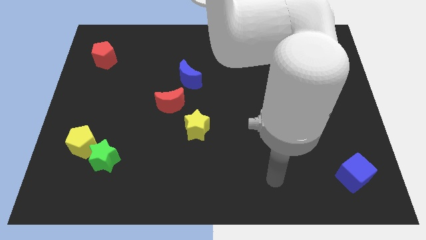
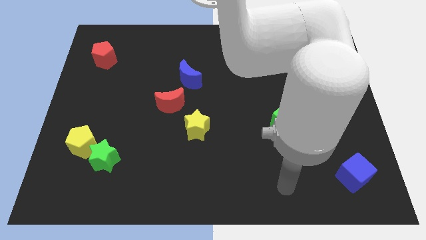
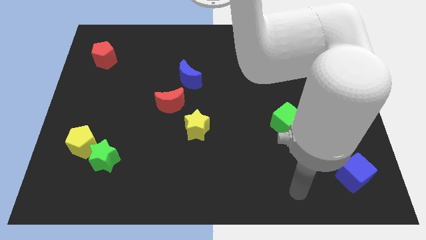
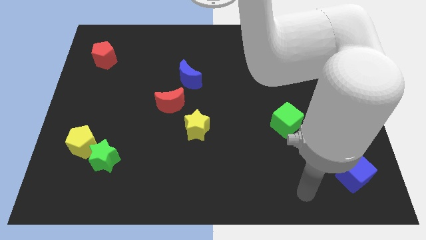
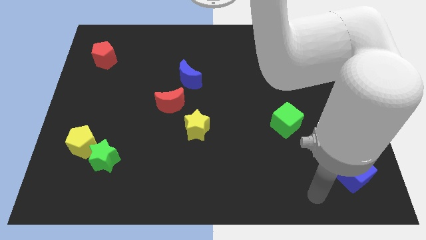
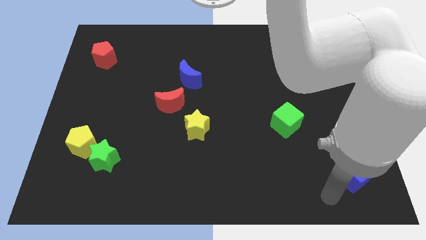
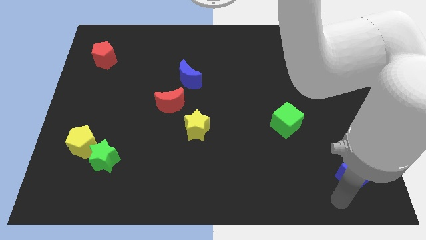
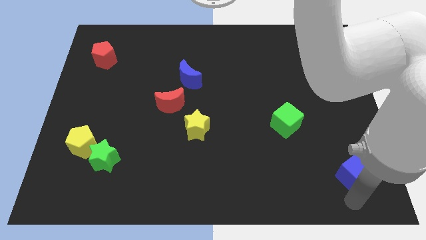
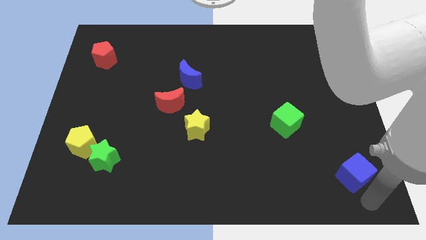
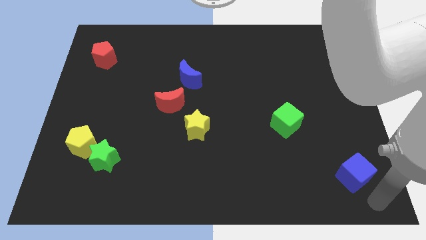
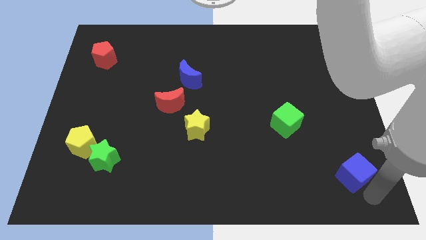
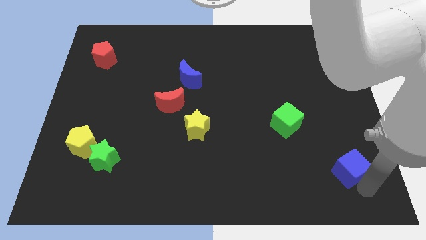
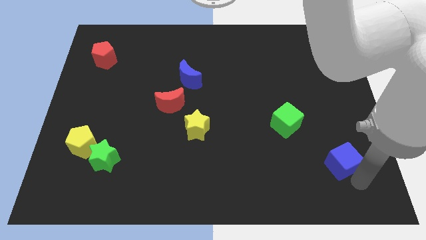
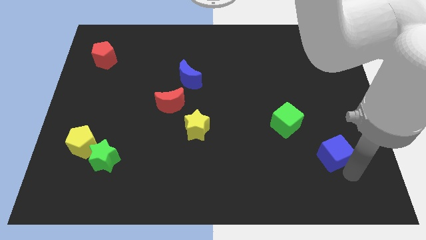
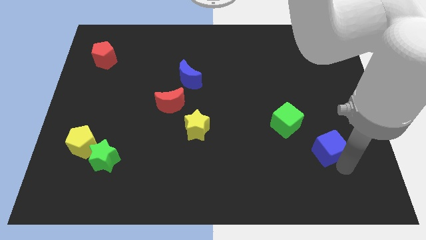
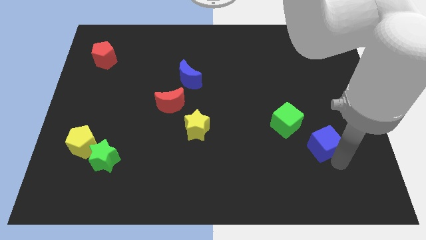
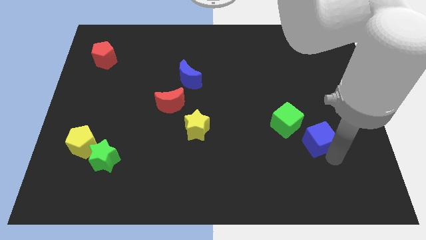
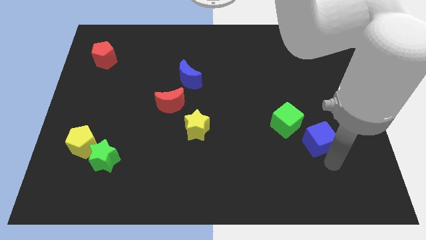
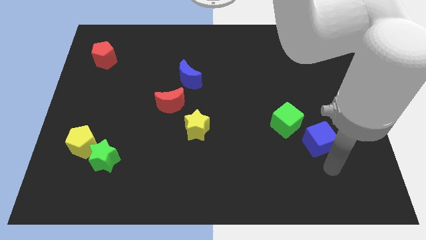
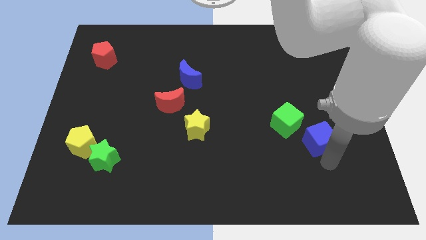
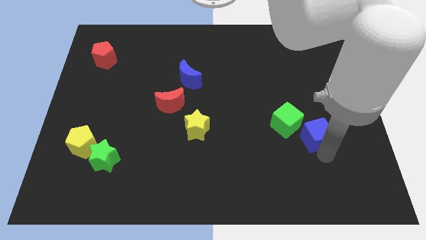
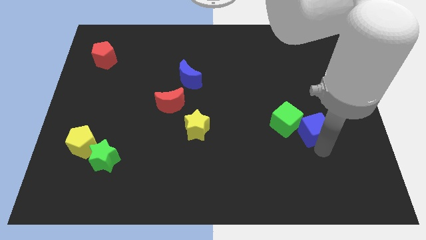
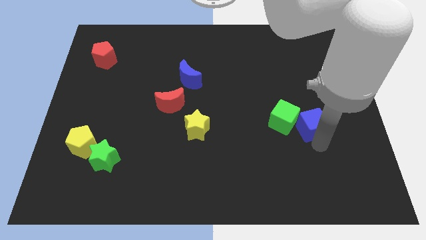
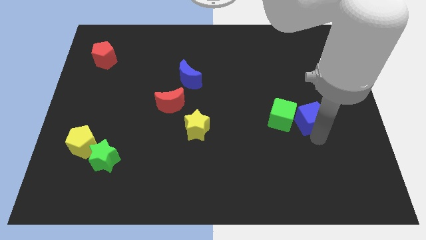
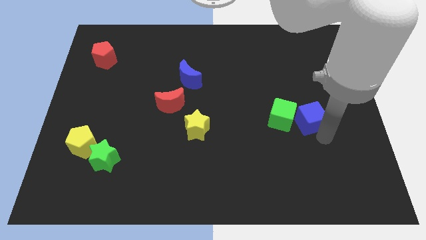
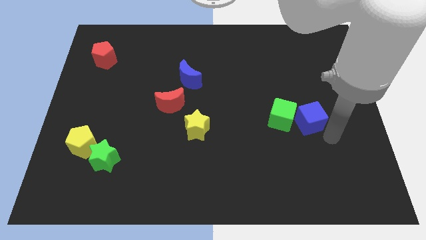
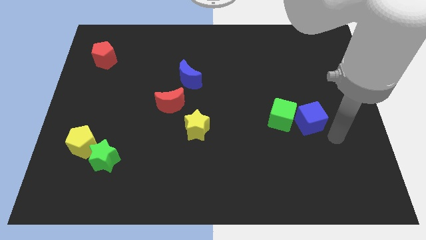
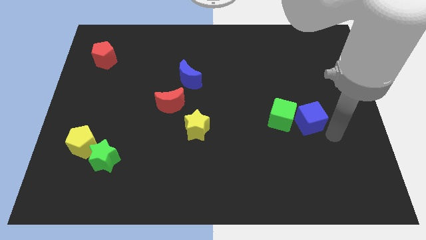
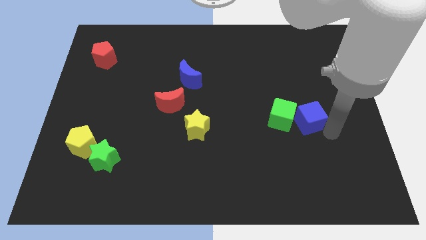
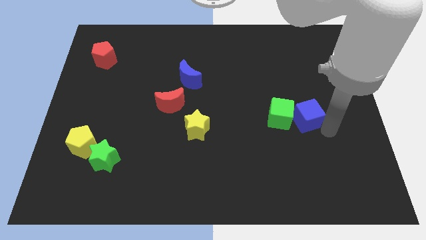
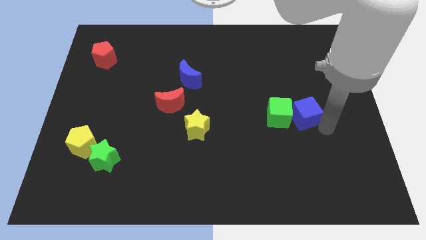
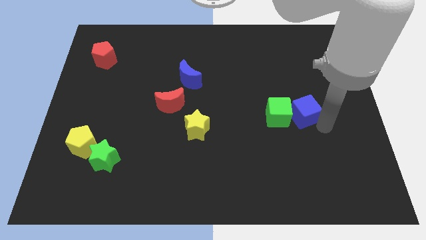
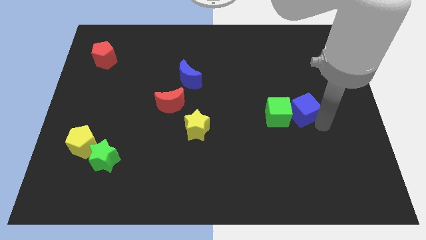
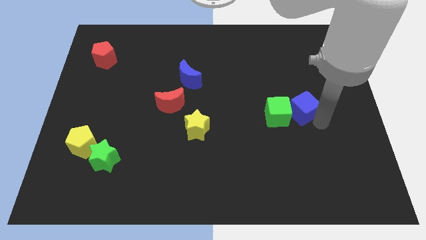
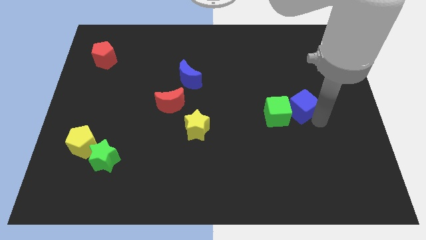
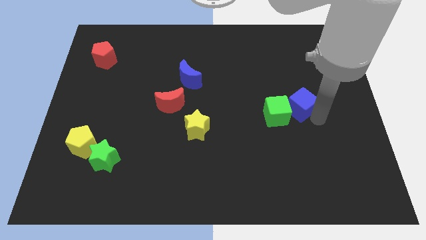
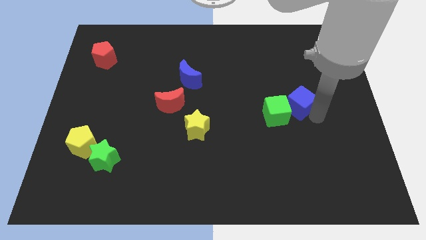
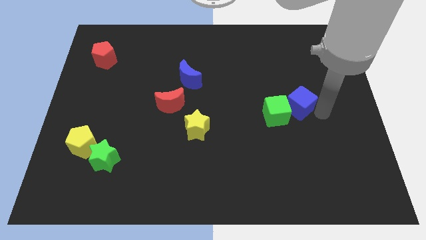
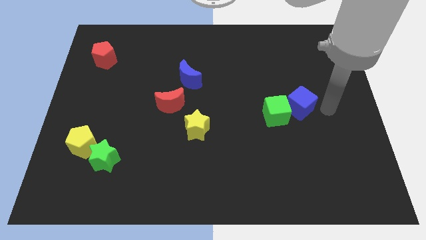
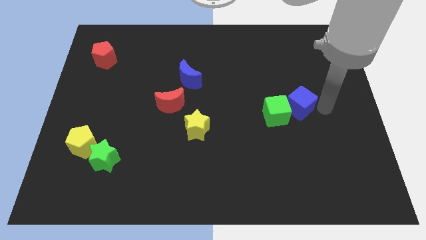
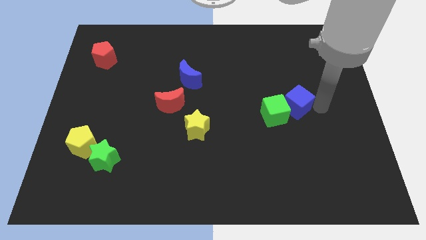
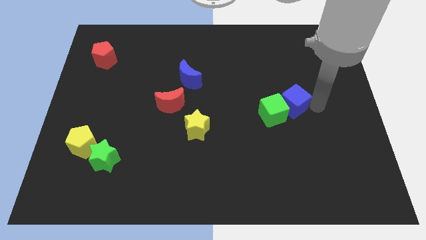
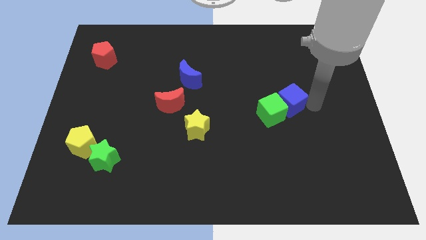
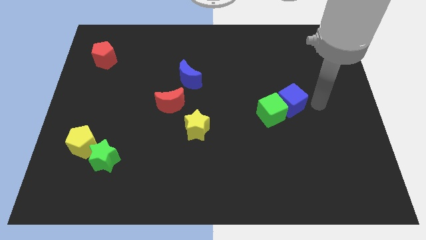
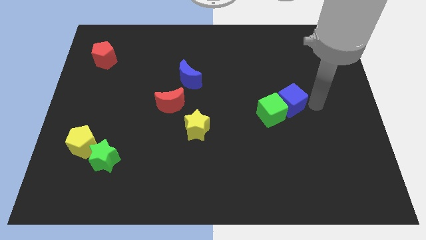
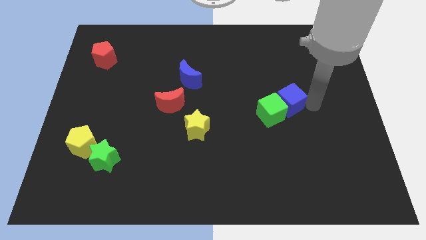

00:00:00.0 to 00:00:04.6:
push the blue cube up and then left

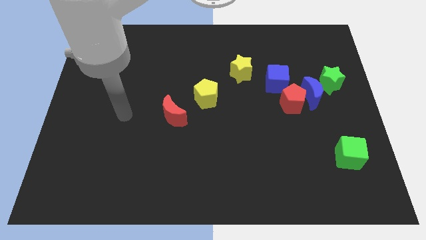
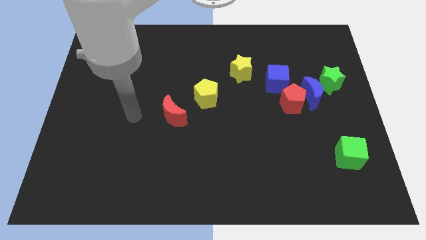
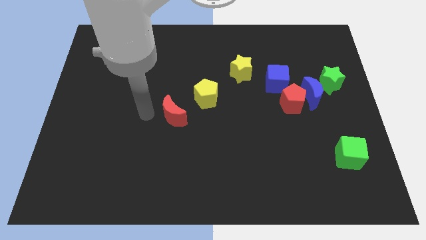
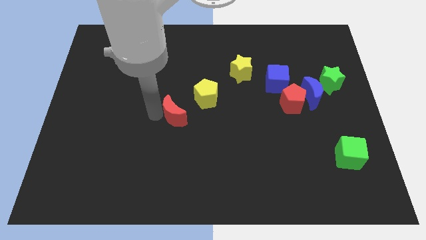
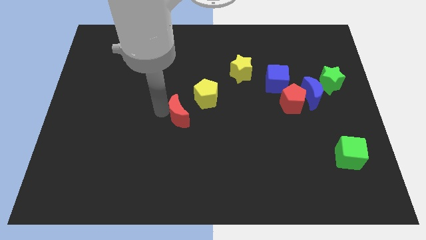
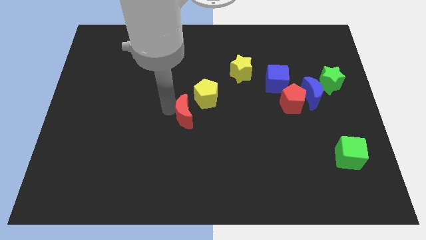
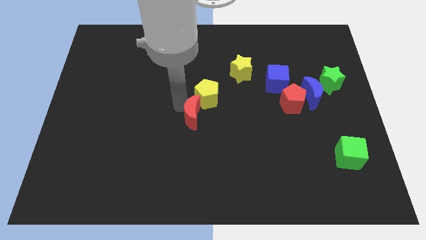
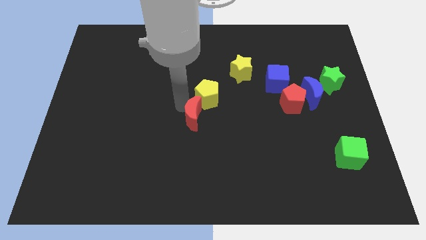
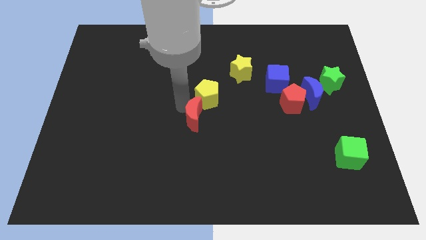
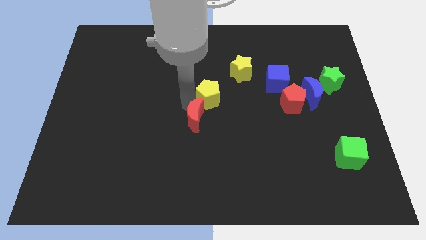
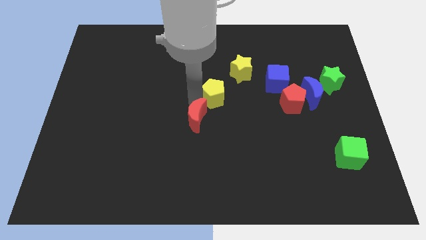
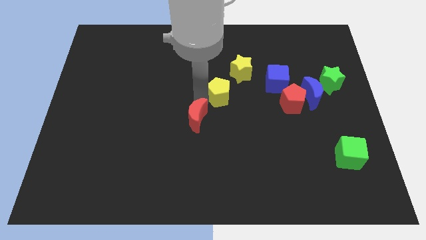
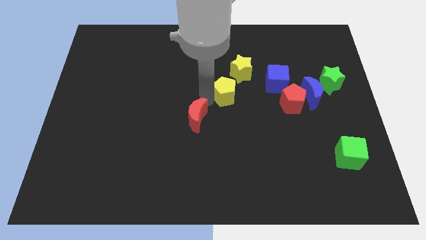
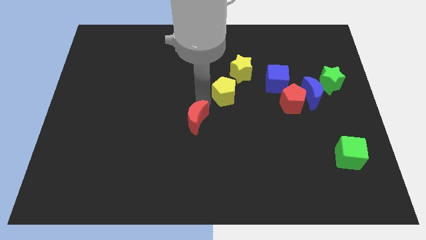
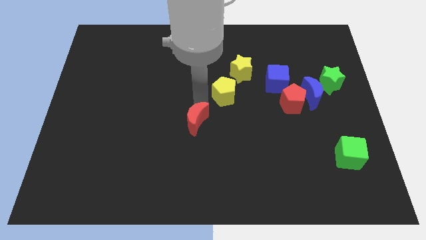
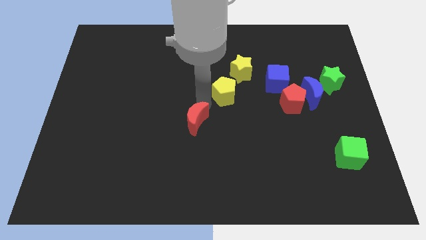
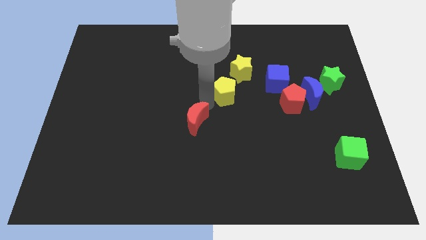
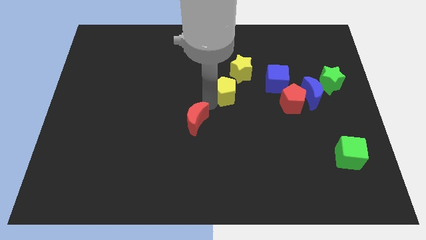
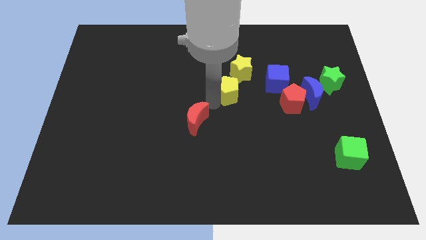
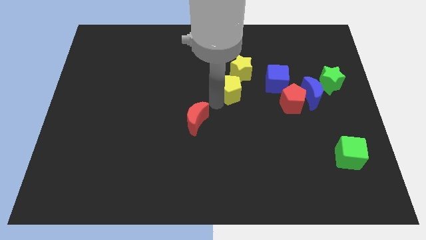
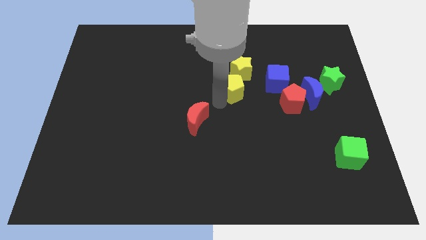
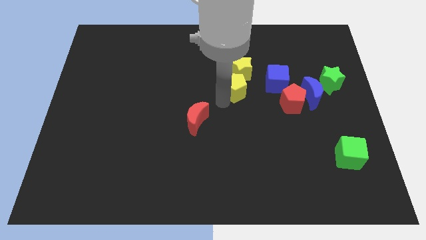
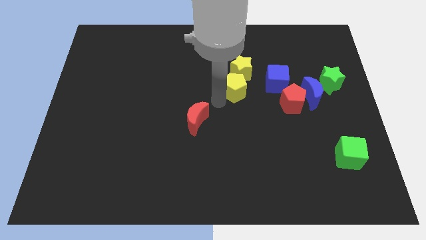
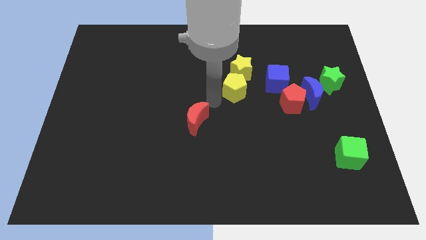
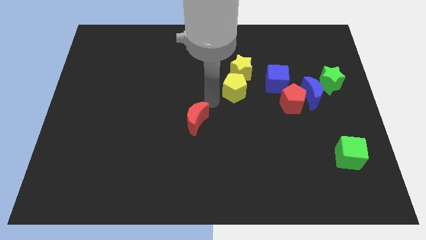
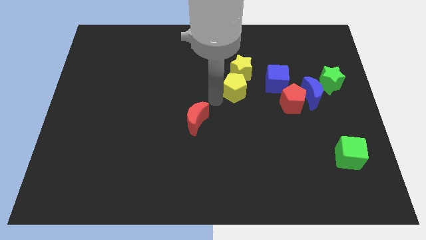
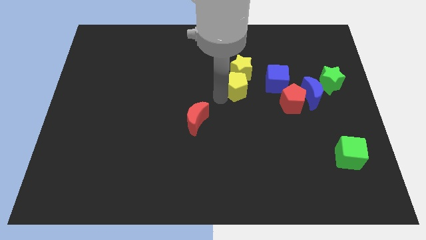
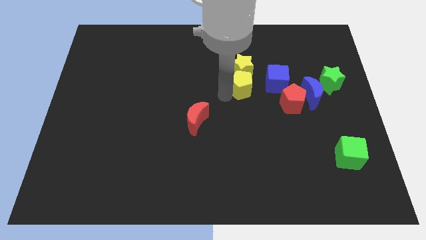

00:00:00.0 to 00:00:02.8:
push the yellow pentagon somewhat upwards and right

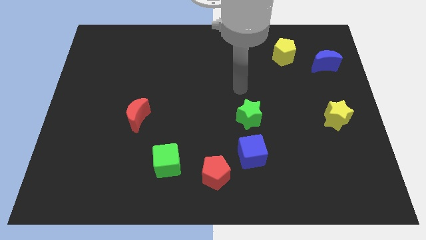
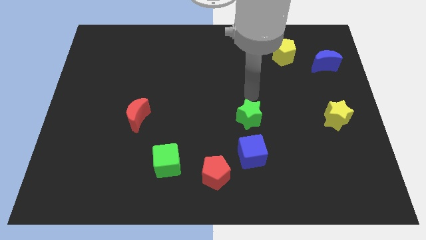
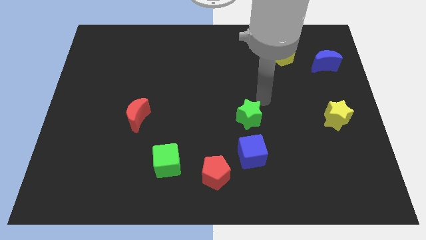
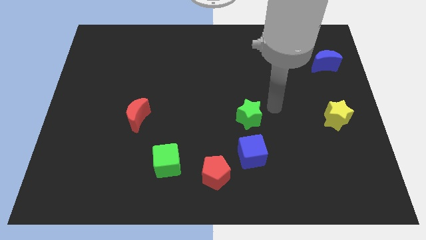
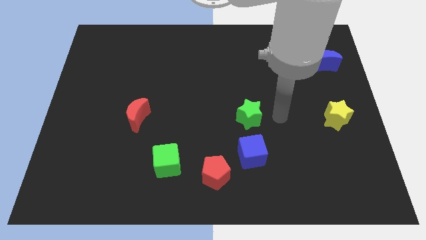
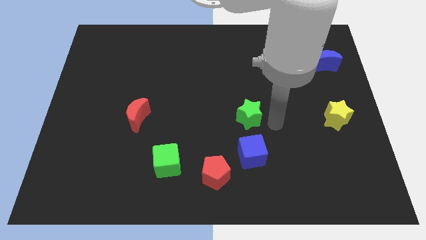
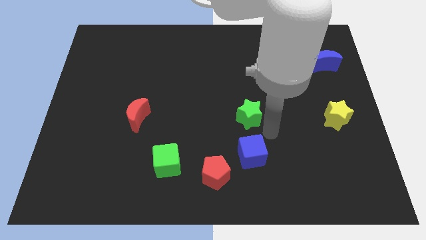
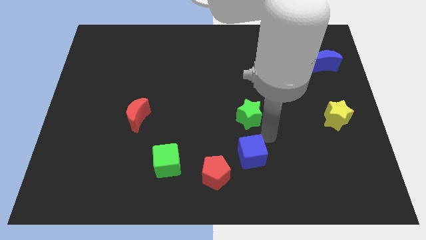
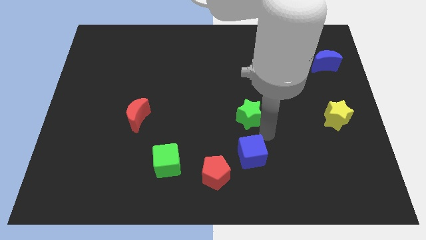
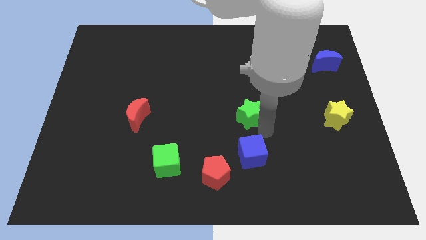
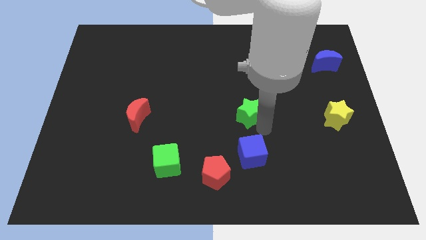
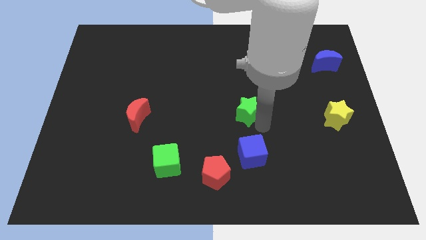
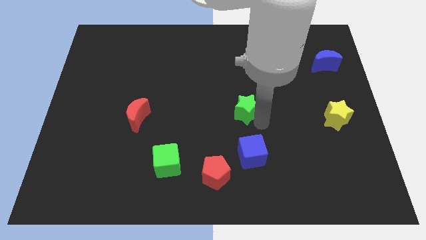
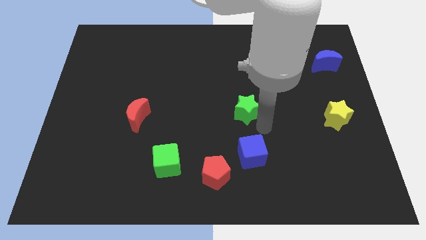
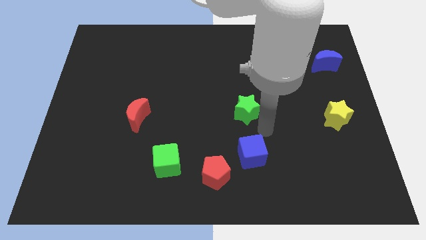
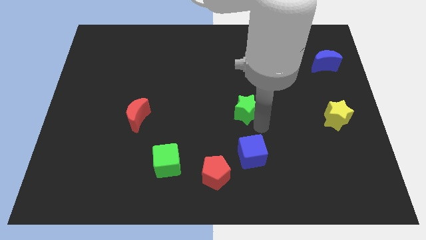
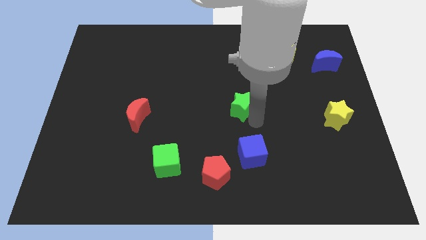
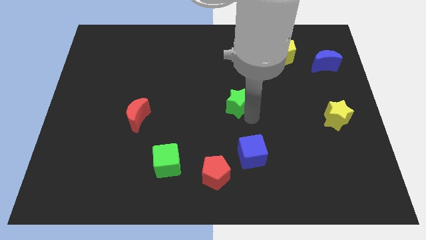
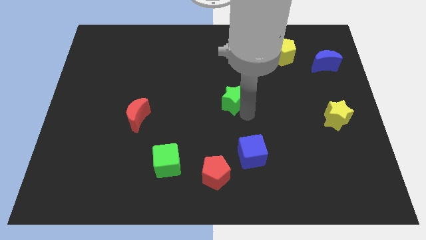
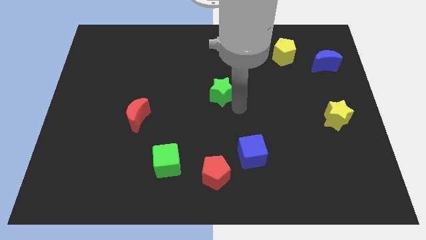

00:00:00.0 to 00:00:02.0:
move the green star up and left diagonally a little bit
